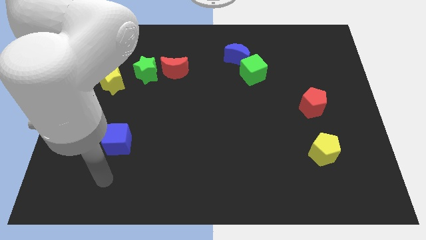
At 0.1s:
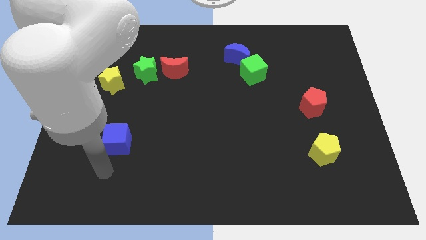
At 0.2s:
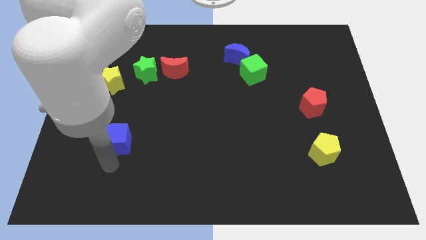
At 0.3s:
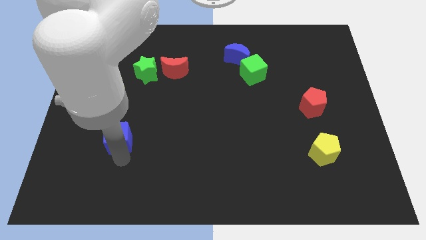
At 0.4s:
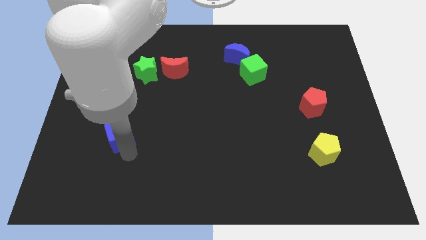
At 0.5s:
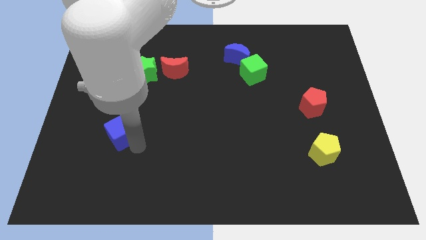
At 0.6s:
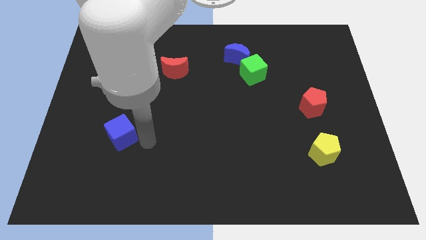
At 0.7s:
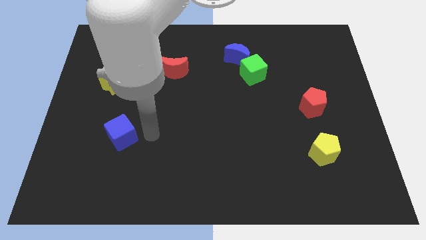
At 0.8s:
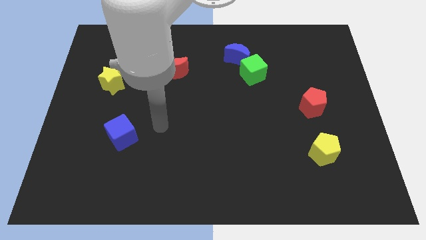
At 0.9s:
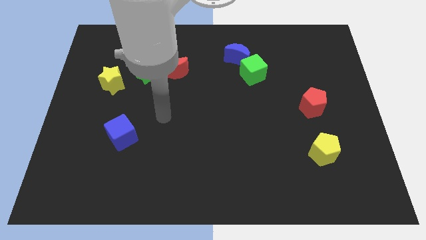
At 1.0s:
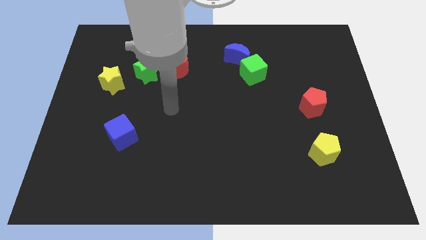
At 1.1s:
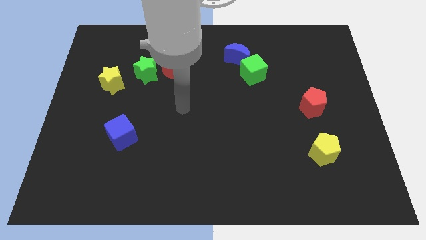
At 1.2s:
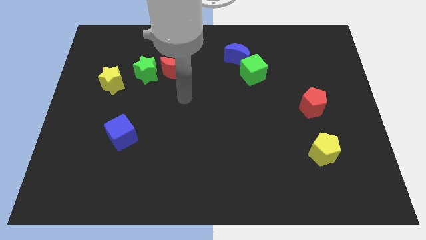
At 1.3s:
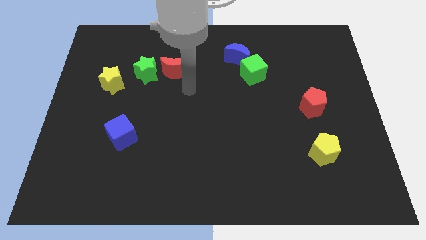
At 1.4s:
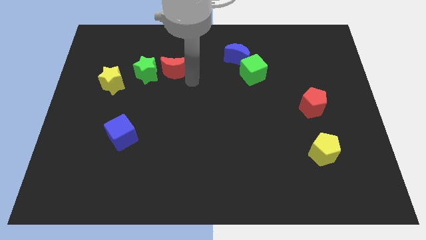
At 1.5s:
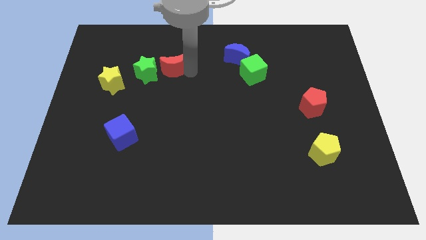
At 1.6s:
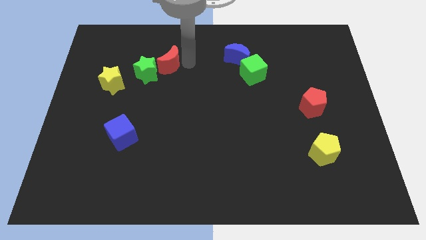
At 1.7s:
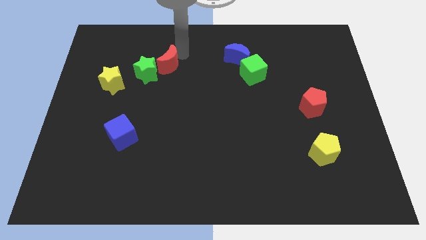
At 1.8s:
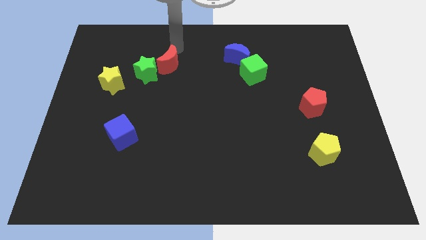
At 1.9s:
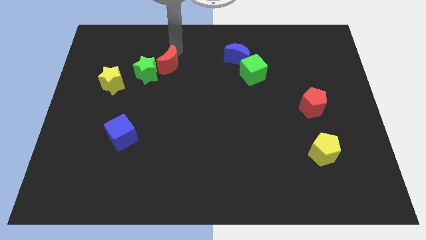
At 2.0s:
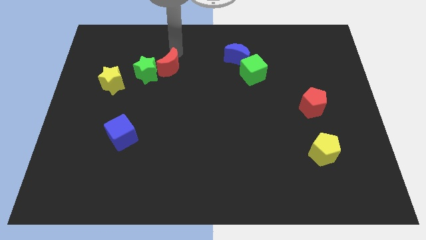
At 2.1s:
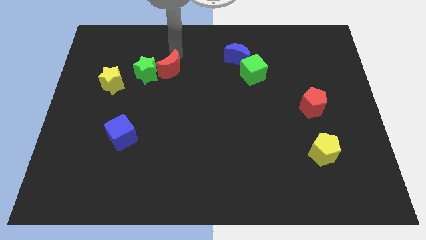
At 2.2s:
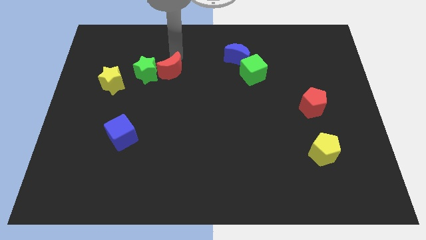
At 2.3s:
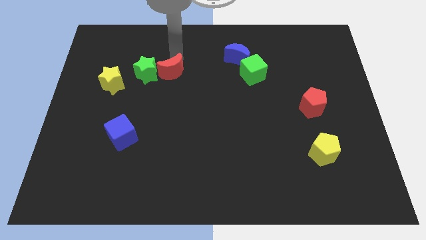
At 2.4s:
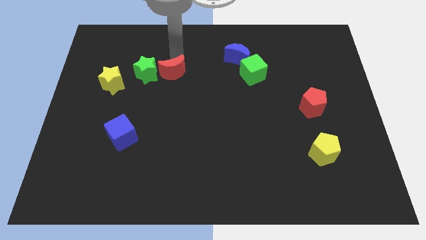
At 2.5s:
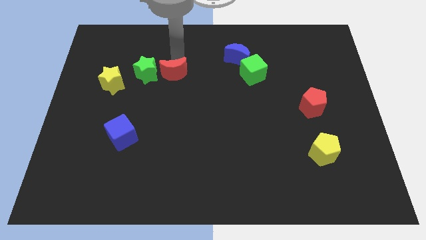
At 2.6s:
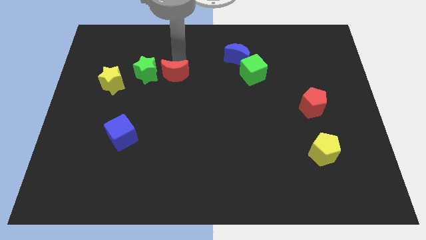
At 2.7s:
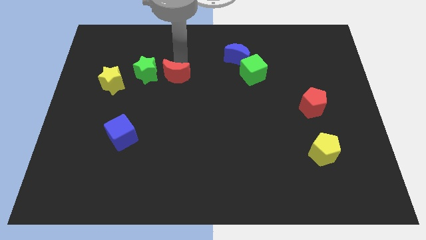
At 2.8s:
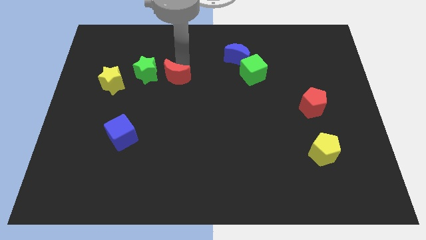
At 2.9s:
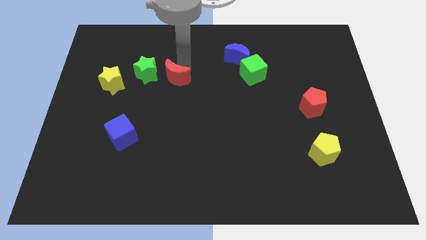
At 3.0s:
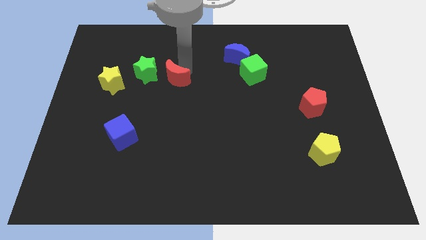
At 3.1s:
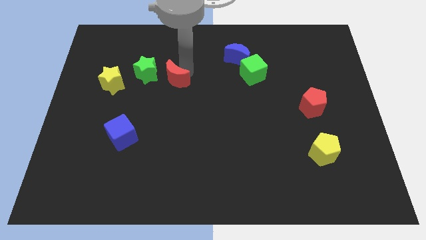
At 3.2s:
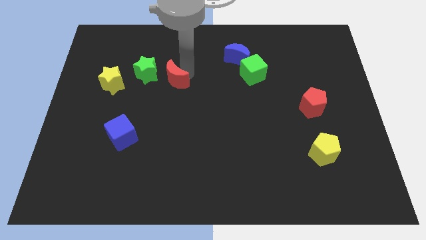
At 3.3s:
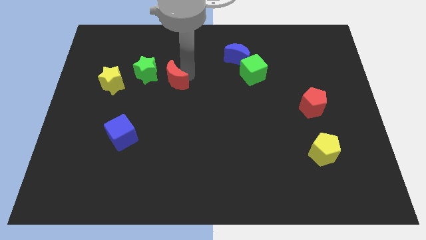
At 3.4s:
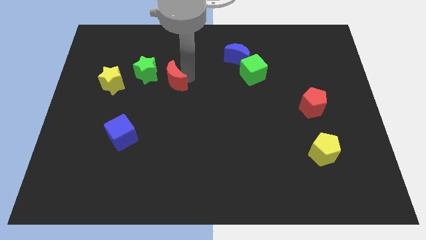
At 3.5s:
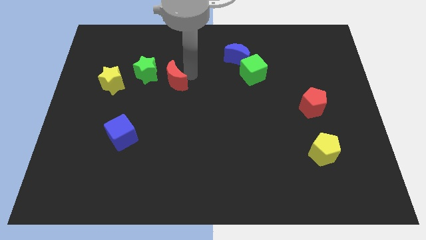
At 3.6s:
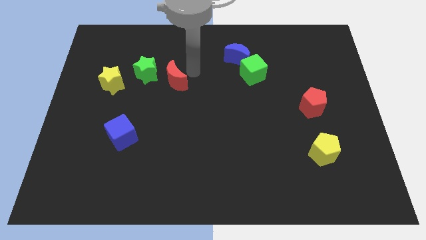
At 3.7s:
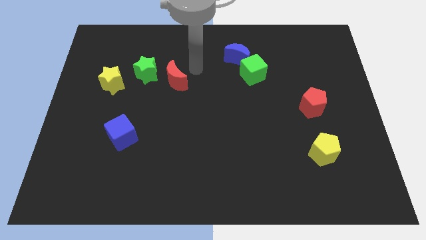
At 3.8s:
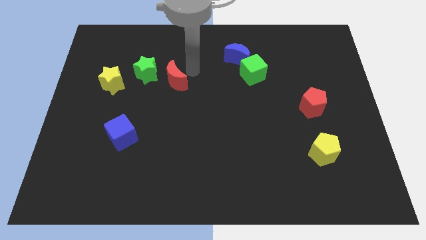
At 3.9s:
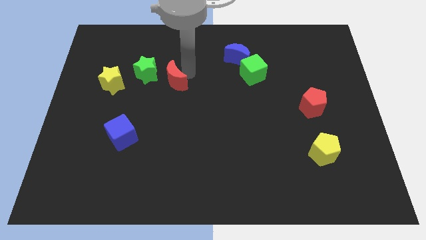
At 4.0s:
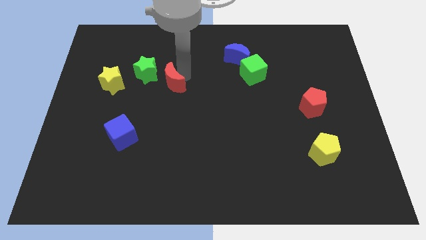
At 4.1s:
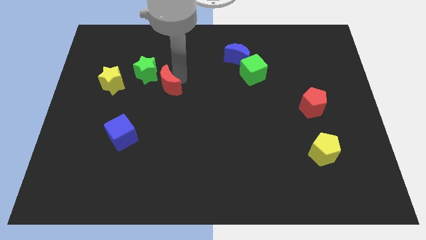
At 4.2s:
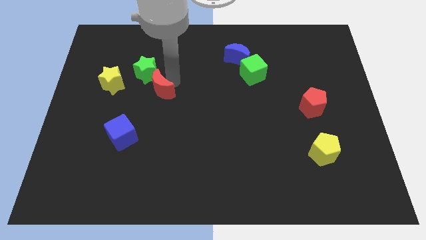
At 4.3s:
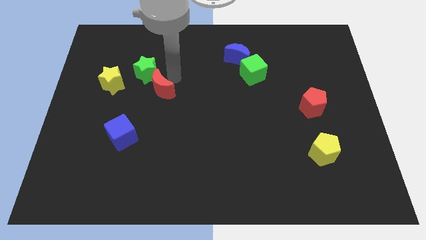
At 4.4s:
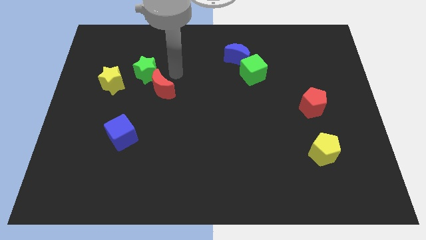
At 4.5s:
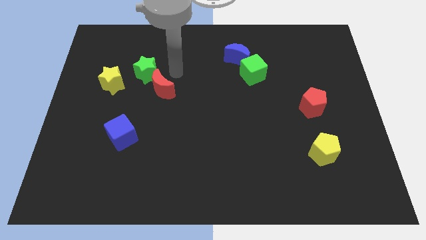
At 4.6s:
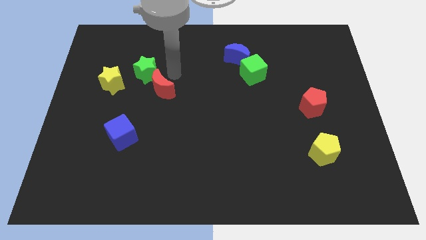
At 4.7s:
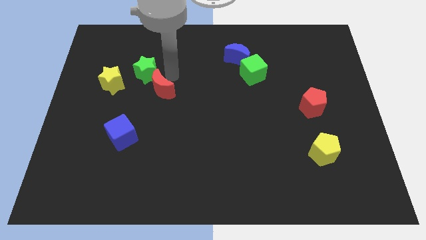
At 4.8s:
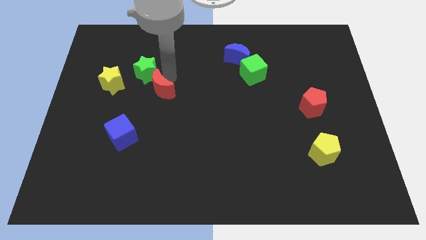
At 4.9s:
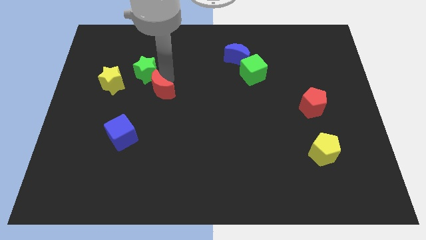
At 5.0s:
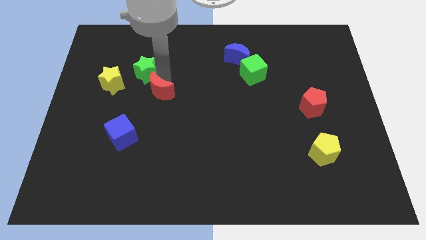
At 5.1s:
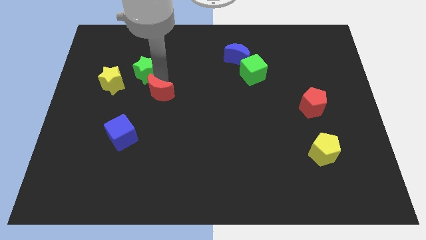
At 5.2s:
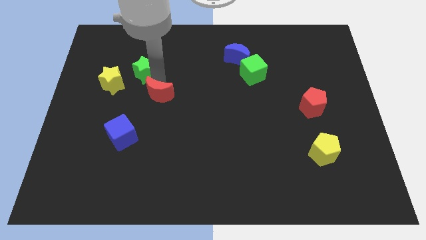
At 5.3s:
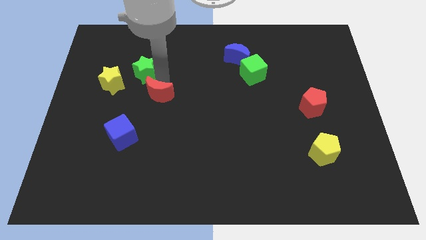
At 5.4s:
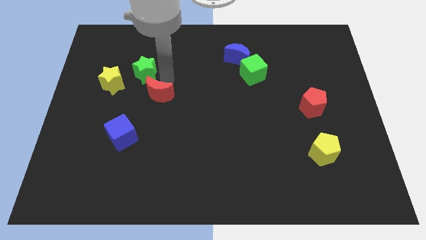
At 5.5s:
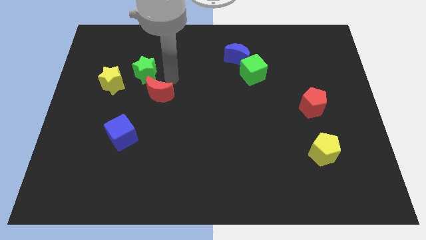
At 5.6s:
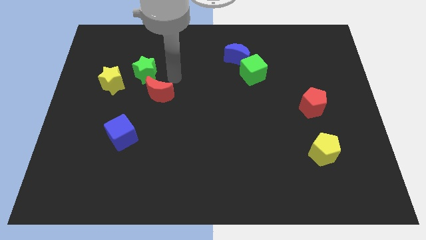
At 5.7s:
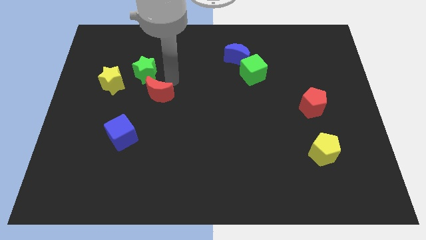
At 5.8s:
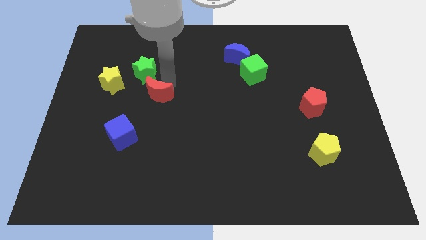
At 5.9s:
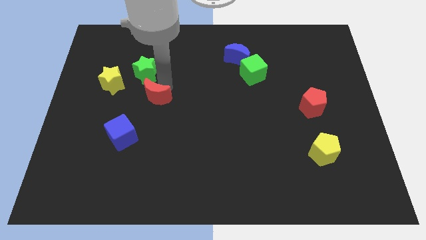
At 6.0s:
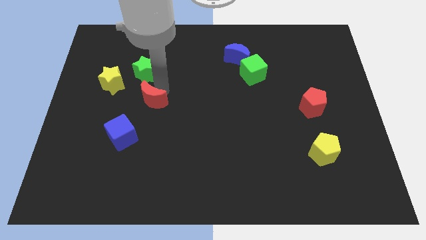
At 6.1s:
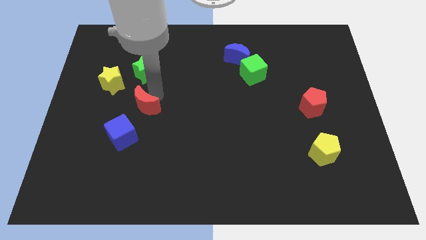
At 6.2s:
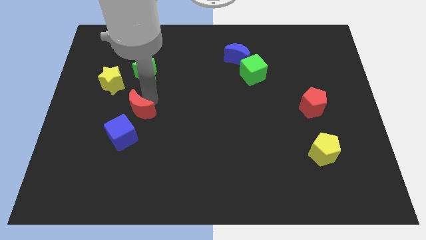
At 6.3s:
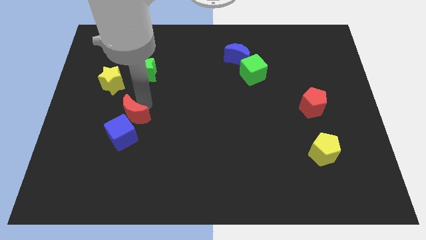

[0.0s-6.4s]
slide the red moon close to the blue cube

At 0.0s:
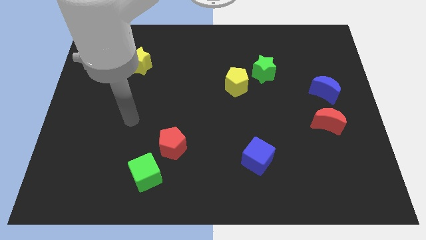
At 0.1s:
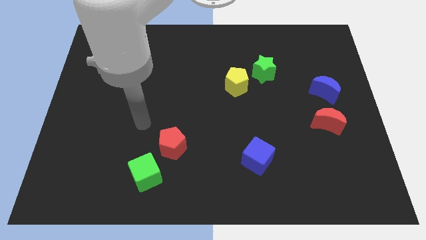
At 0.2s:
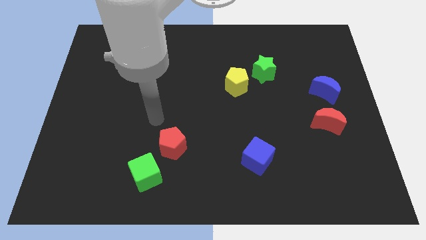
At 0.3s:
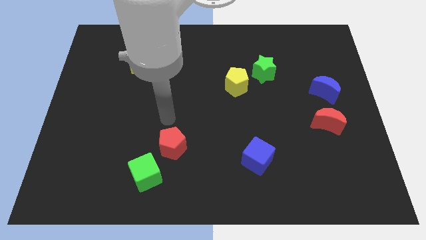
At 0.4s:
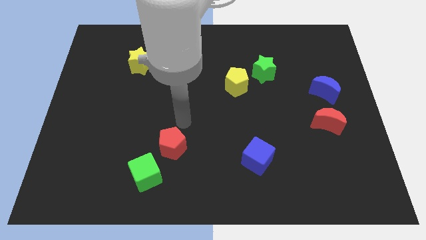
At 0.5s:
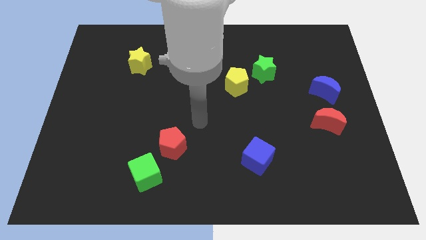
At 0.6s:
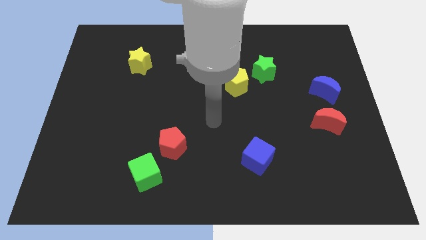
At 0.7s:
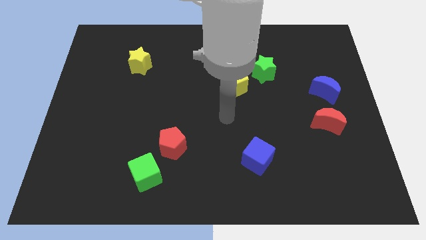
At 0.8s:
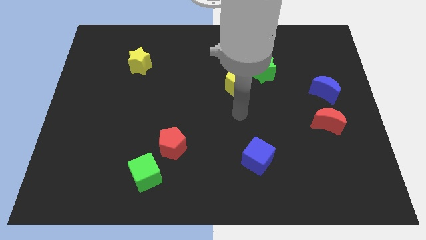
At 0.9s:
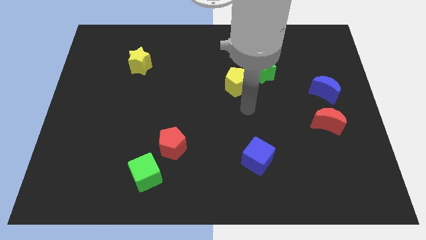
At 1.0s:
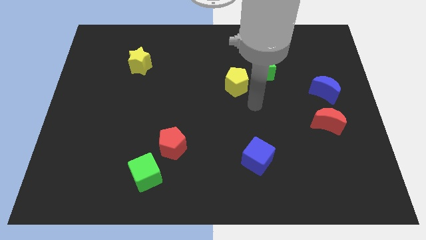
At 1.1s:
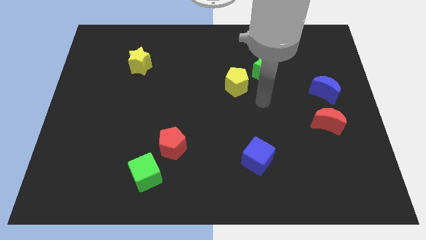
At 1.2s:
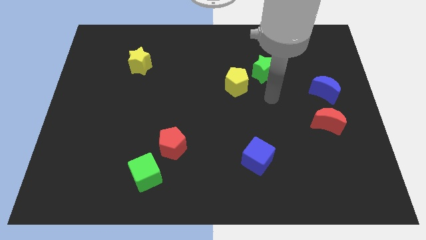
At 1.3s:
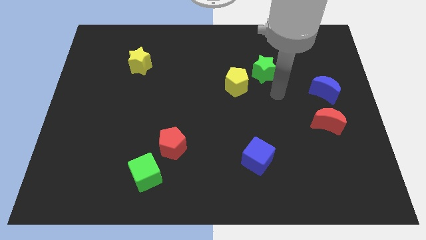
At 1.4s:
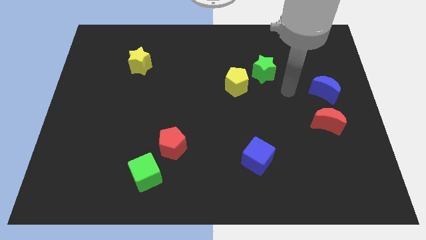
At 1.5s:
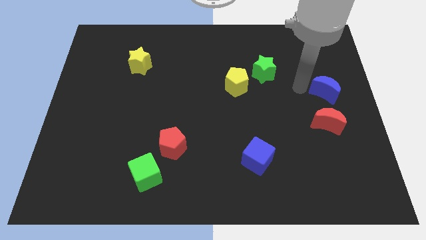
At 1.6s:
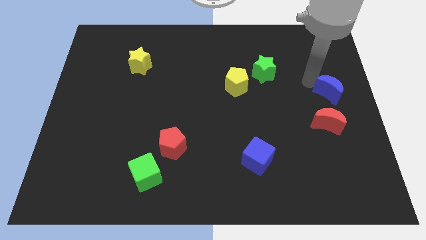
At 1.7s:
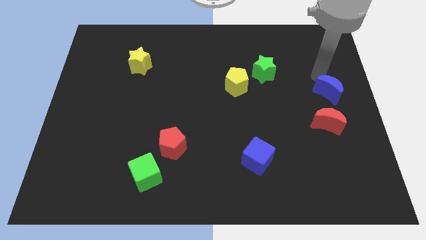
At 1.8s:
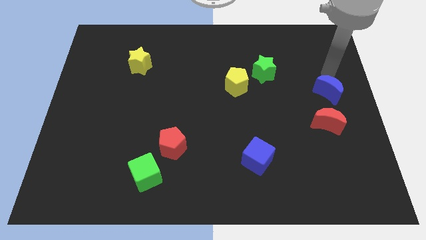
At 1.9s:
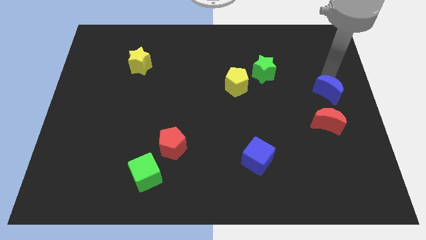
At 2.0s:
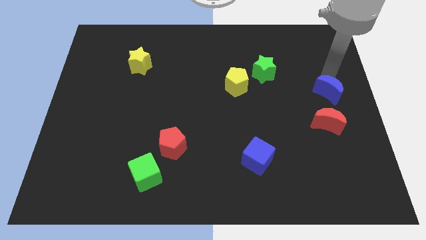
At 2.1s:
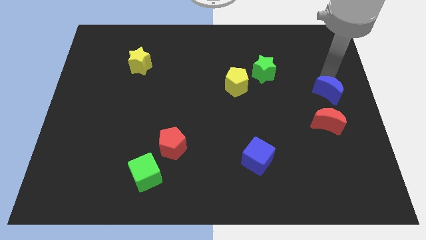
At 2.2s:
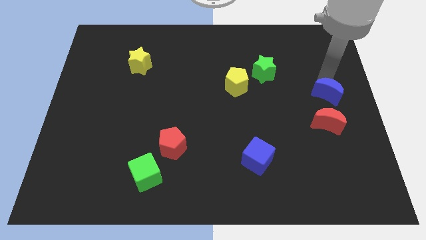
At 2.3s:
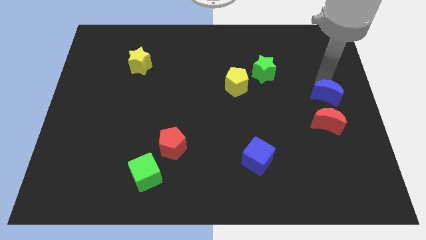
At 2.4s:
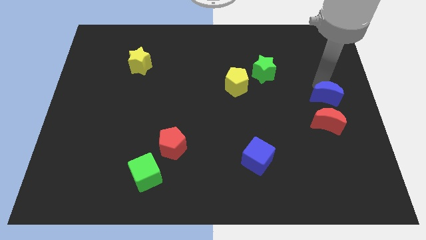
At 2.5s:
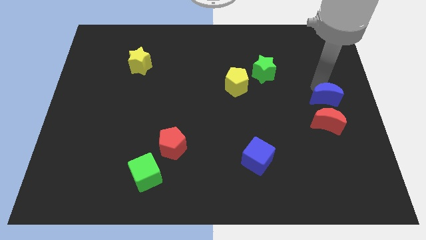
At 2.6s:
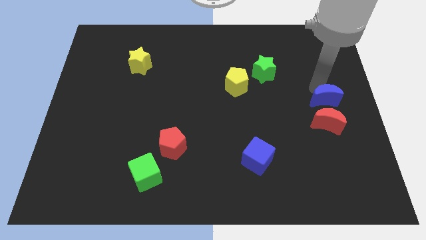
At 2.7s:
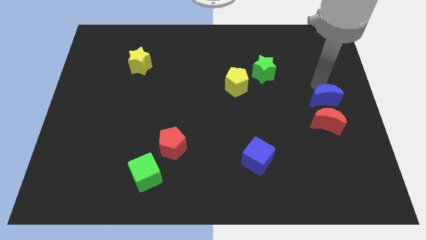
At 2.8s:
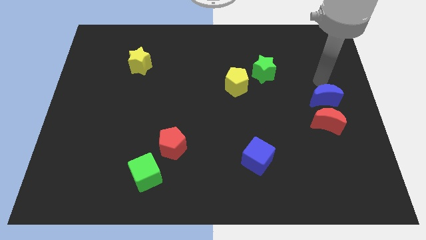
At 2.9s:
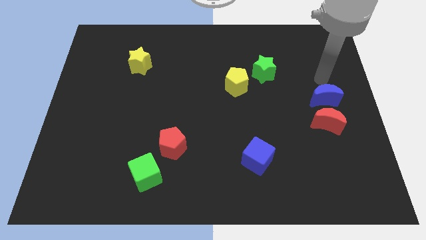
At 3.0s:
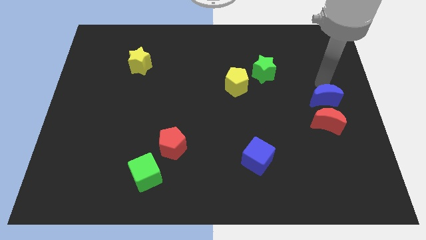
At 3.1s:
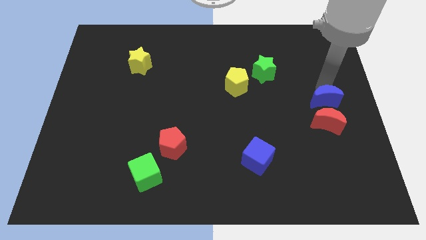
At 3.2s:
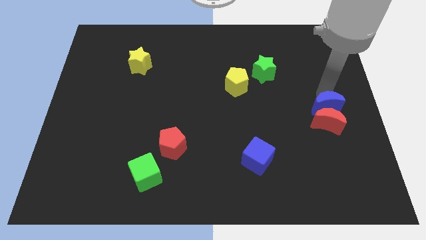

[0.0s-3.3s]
move the blue moon towards the red moon
